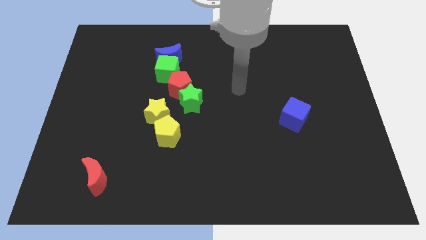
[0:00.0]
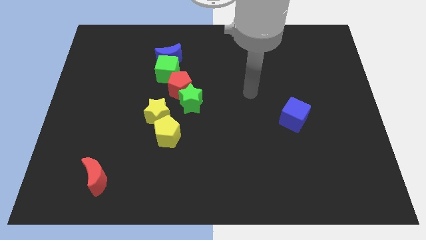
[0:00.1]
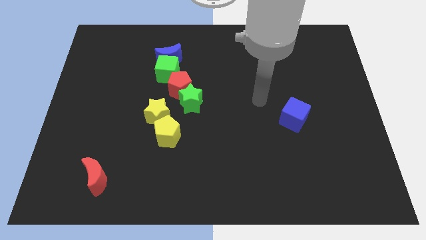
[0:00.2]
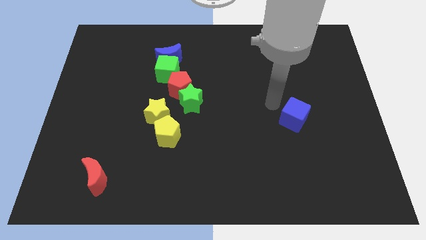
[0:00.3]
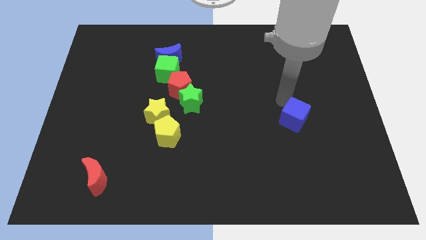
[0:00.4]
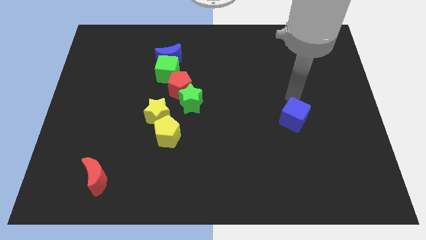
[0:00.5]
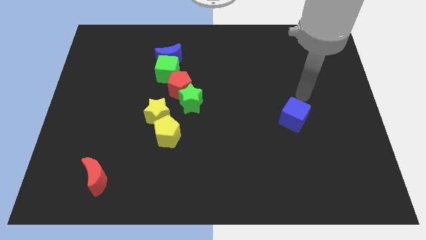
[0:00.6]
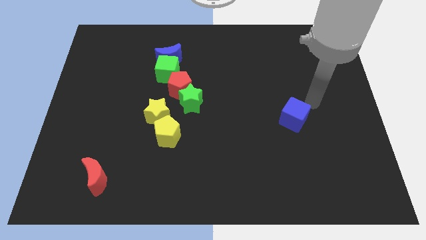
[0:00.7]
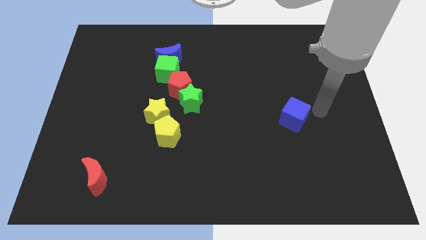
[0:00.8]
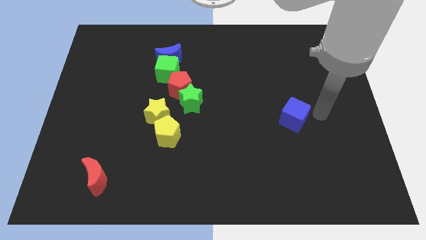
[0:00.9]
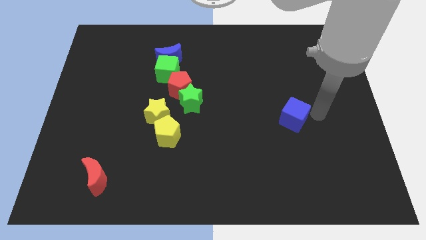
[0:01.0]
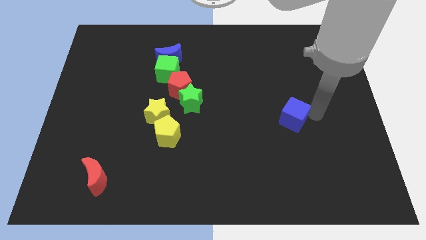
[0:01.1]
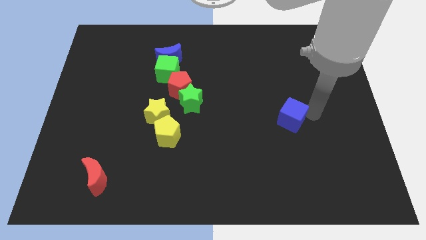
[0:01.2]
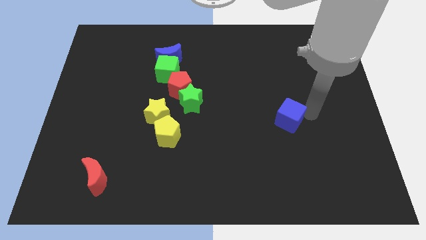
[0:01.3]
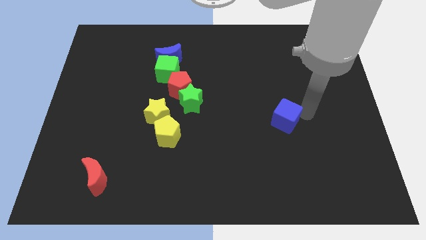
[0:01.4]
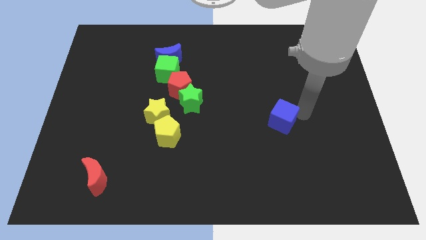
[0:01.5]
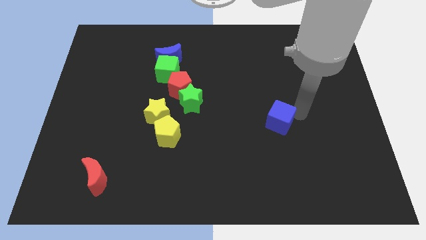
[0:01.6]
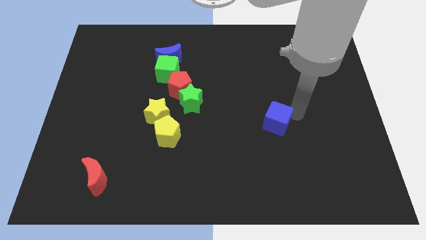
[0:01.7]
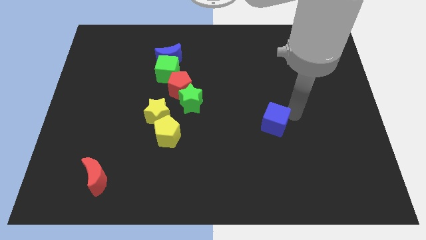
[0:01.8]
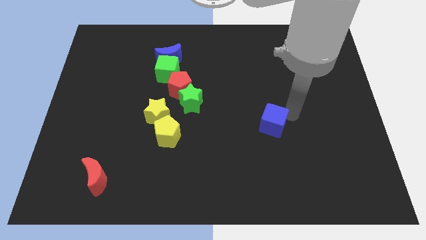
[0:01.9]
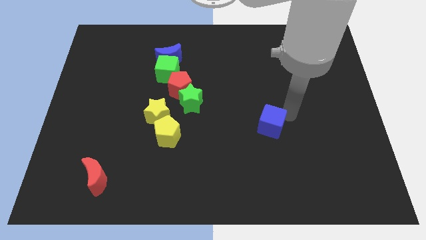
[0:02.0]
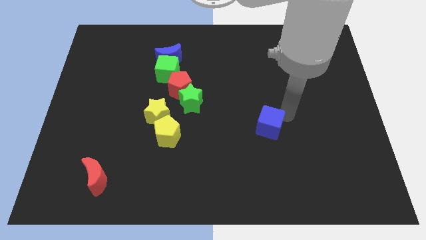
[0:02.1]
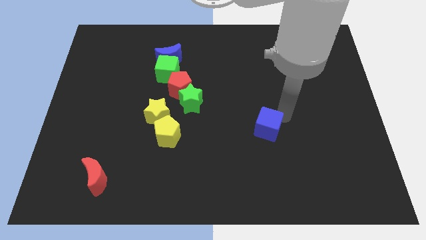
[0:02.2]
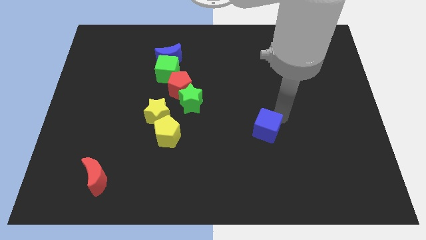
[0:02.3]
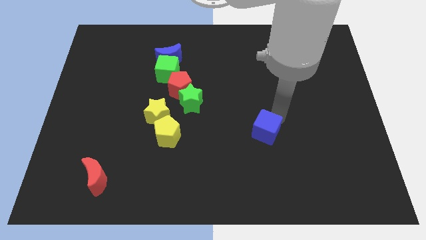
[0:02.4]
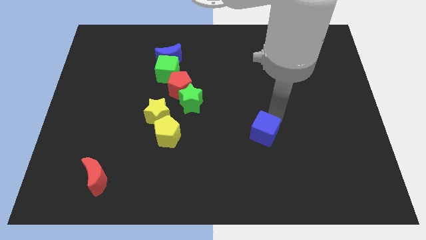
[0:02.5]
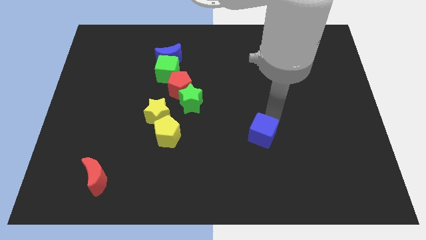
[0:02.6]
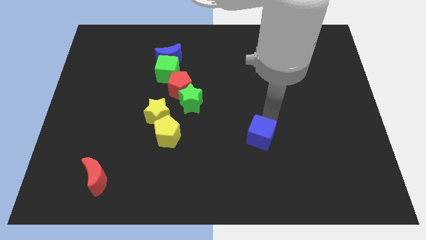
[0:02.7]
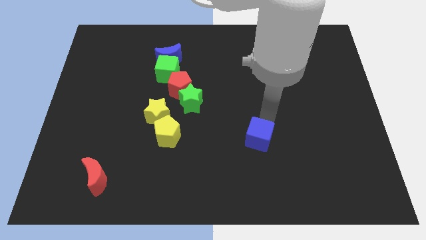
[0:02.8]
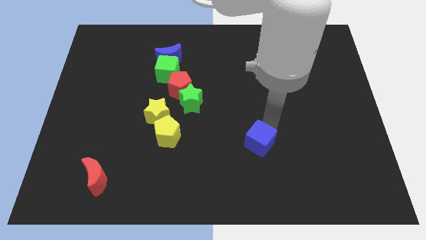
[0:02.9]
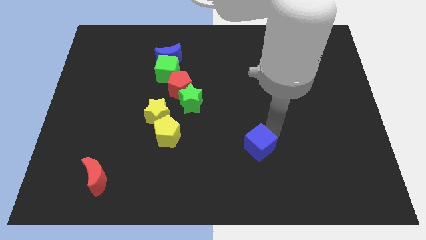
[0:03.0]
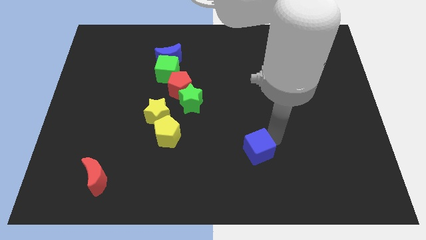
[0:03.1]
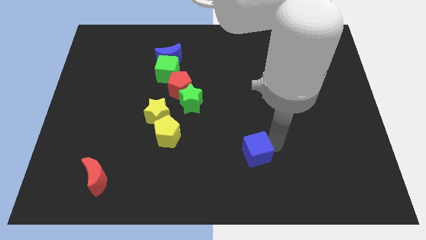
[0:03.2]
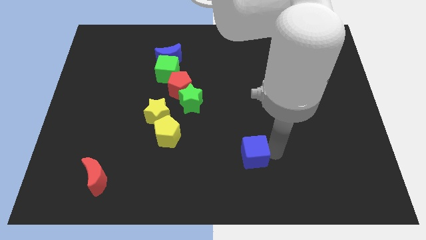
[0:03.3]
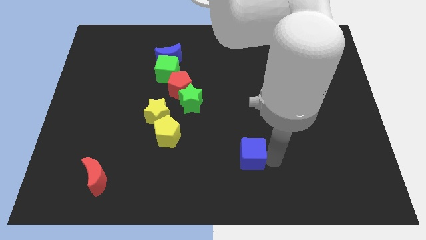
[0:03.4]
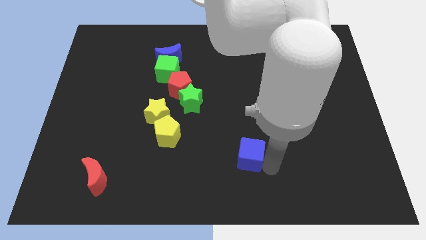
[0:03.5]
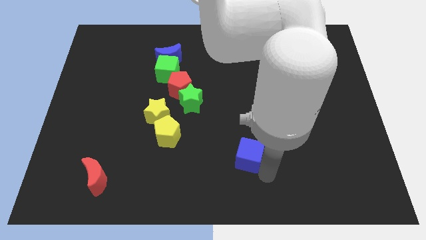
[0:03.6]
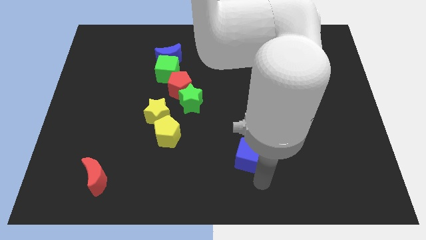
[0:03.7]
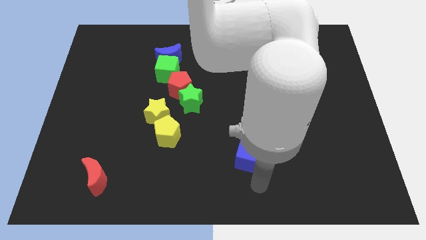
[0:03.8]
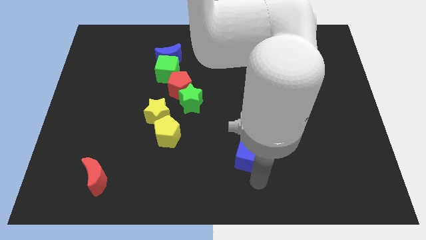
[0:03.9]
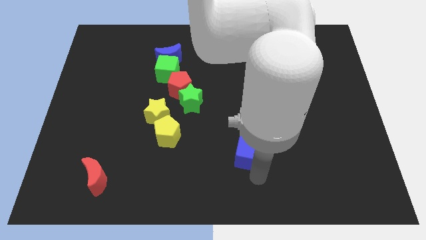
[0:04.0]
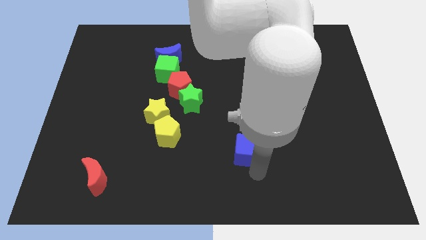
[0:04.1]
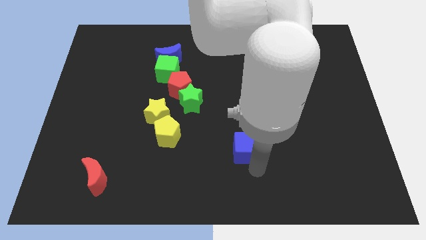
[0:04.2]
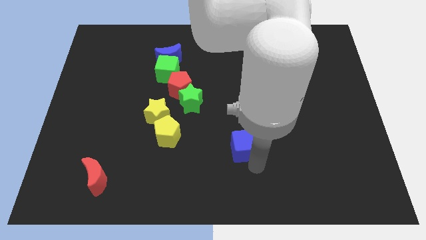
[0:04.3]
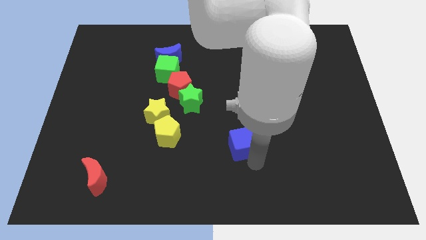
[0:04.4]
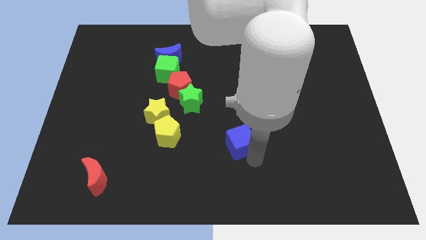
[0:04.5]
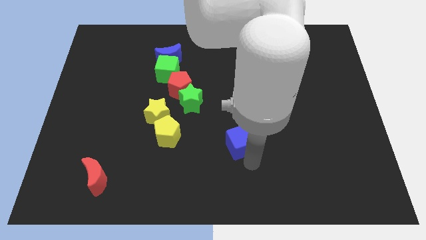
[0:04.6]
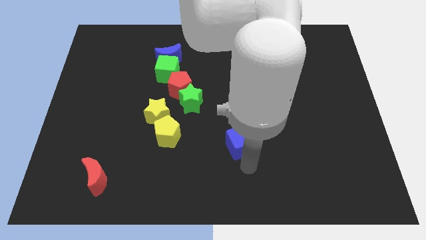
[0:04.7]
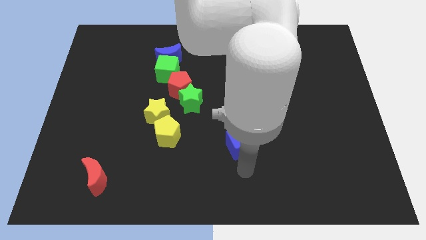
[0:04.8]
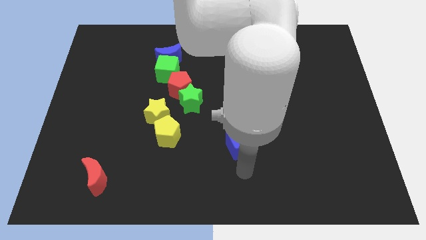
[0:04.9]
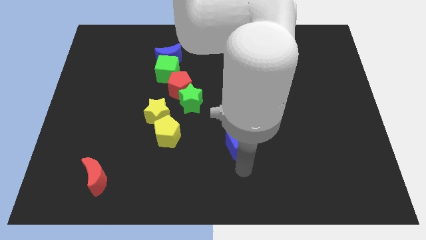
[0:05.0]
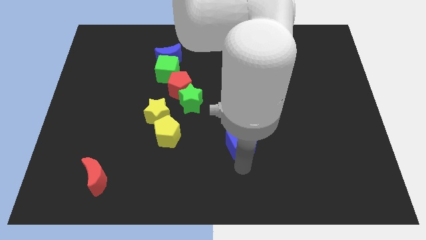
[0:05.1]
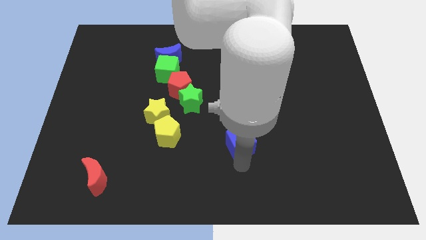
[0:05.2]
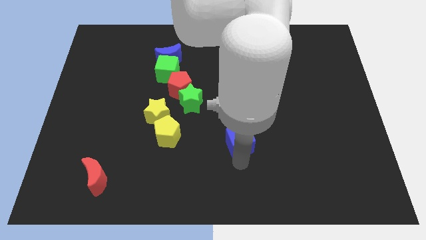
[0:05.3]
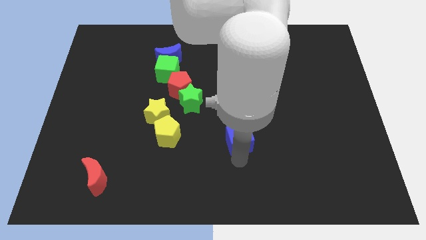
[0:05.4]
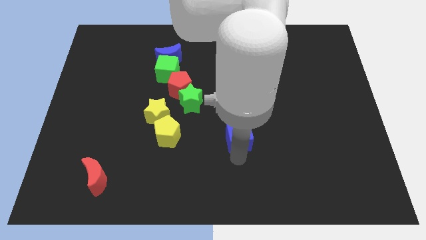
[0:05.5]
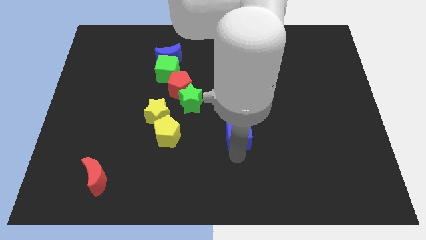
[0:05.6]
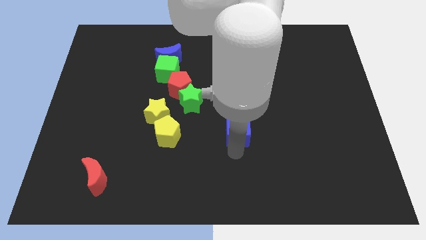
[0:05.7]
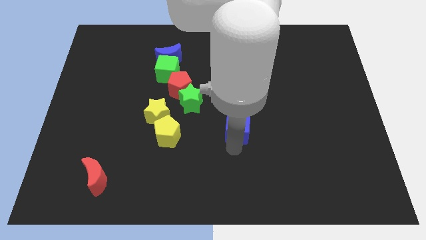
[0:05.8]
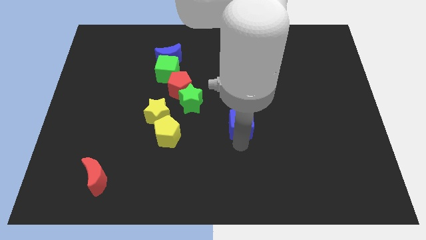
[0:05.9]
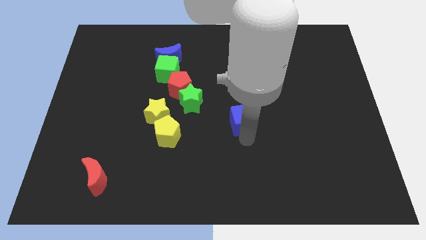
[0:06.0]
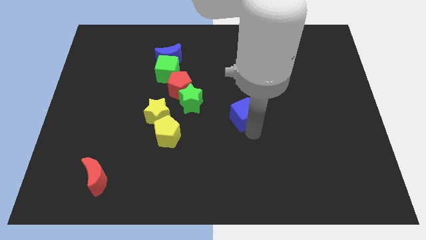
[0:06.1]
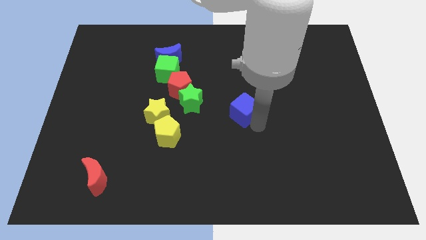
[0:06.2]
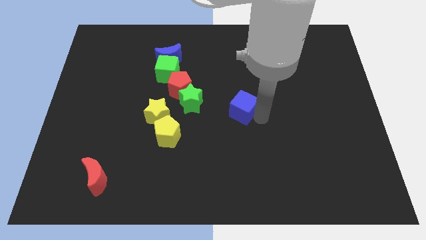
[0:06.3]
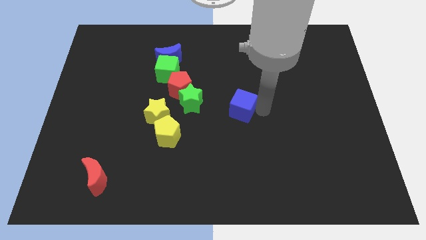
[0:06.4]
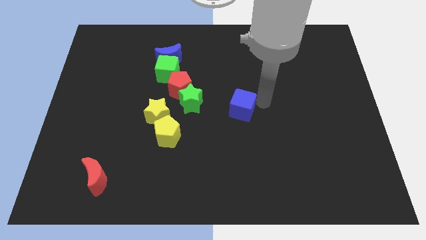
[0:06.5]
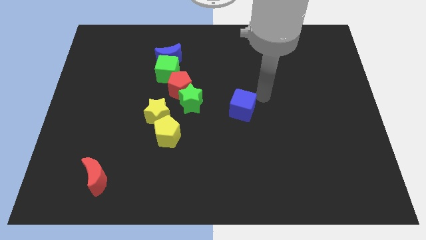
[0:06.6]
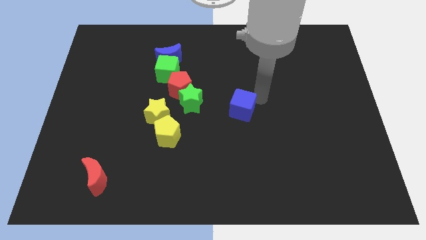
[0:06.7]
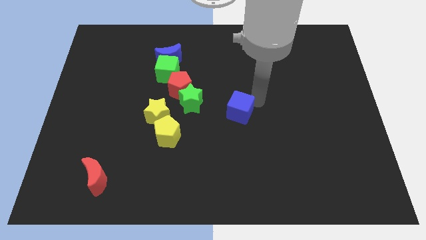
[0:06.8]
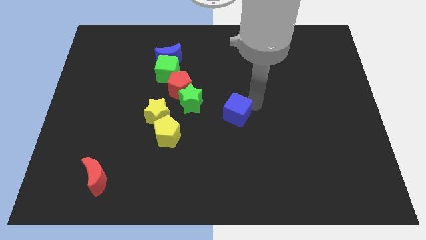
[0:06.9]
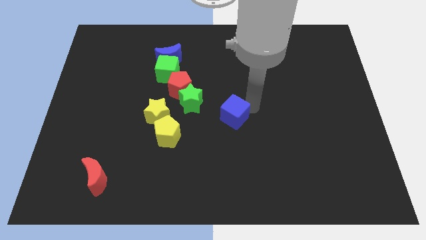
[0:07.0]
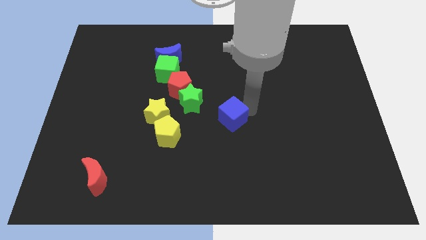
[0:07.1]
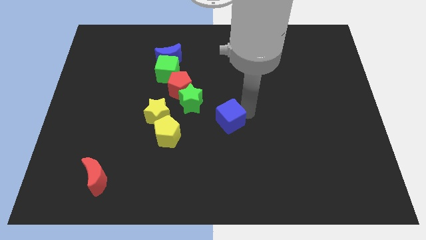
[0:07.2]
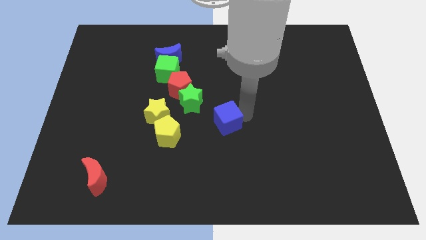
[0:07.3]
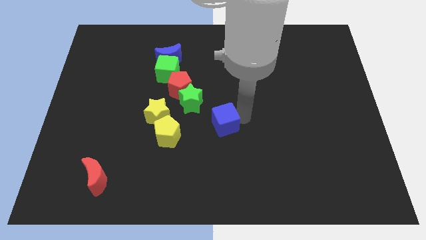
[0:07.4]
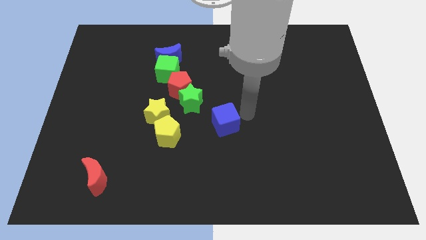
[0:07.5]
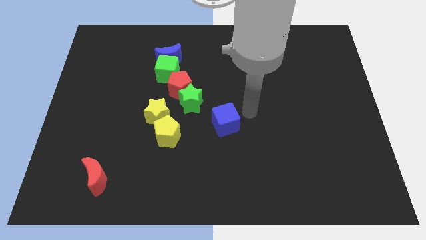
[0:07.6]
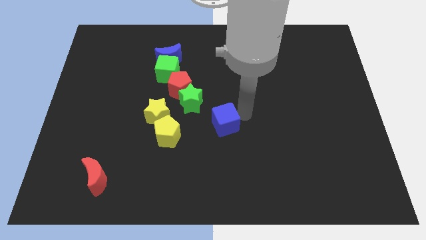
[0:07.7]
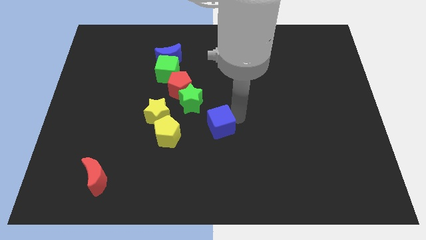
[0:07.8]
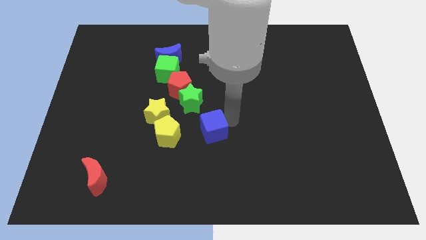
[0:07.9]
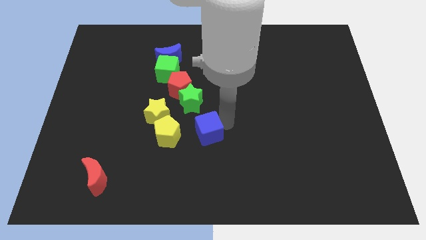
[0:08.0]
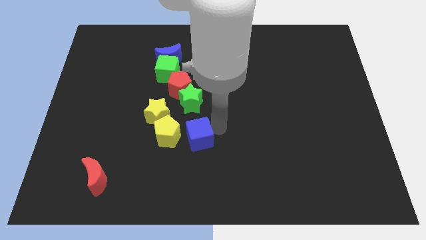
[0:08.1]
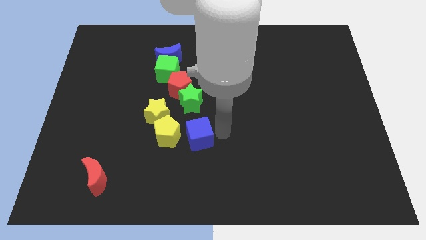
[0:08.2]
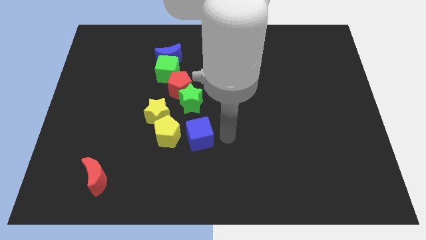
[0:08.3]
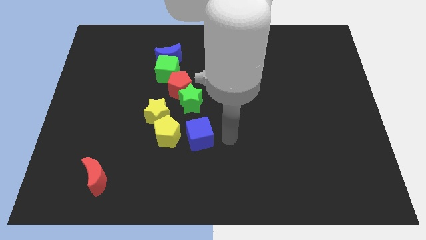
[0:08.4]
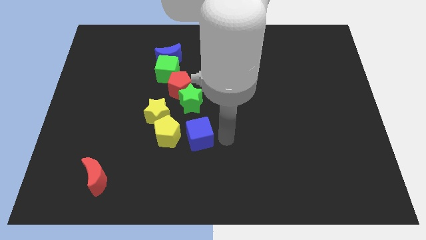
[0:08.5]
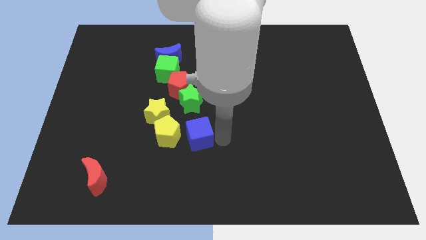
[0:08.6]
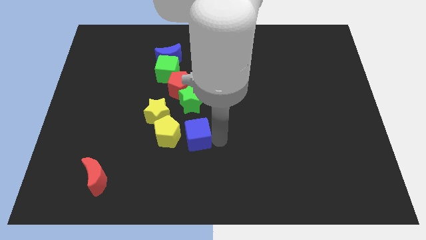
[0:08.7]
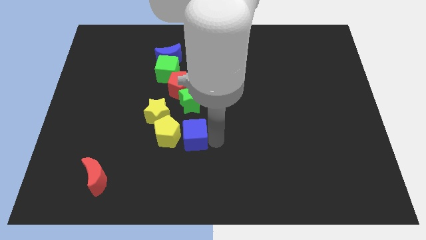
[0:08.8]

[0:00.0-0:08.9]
put the blue cube next to the yellow pentagon
